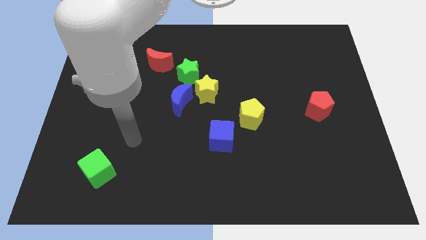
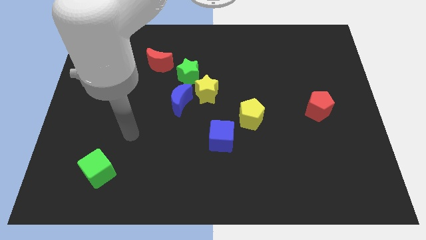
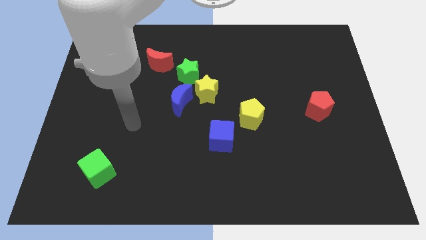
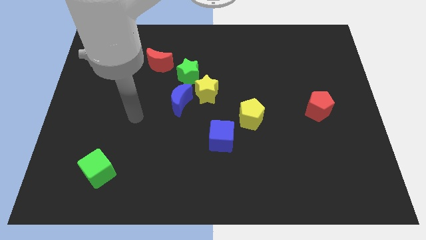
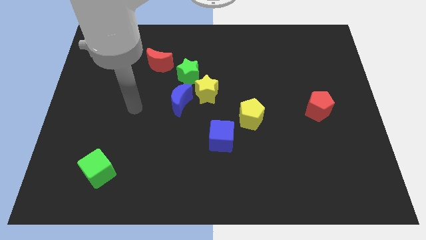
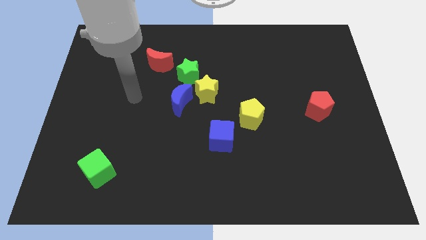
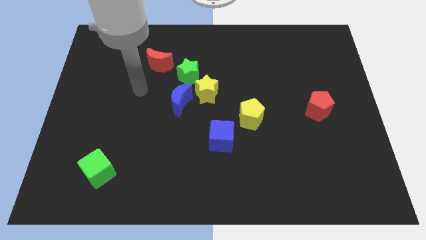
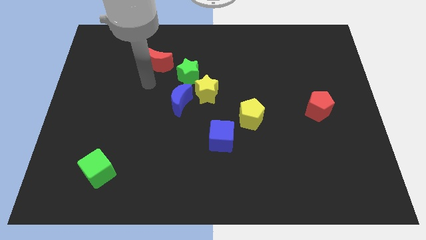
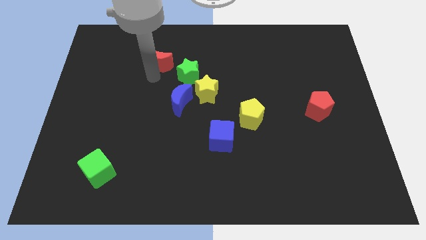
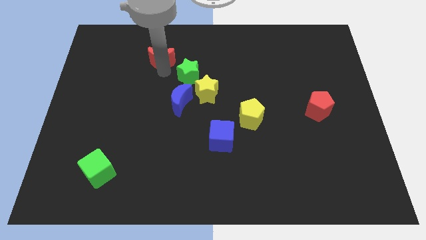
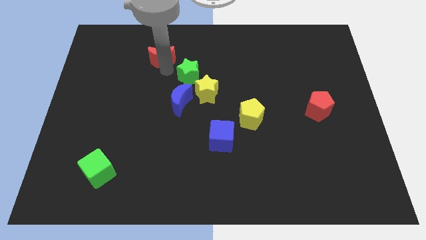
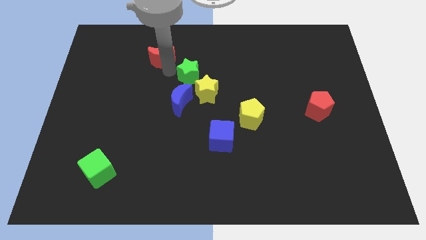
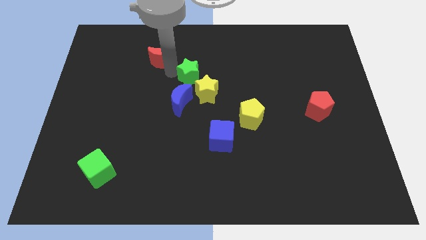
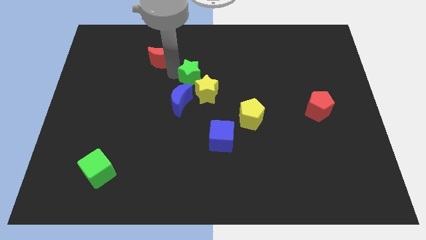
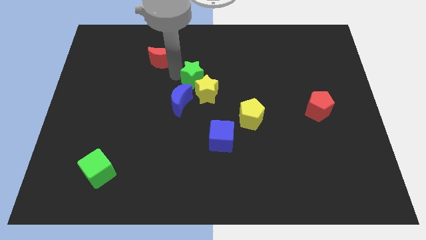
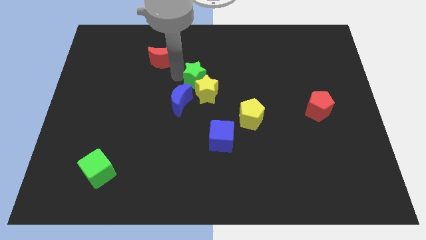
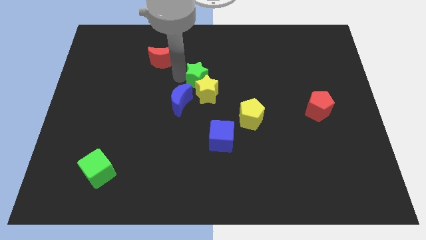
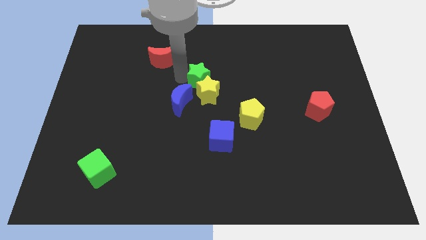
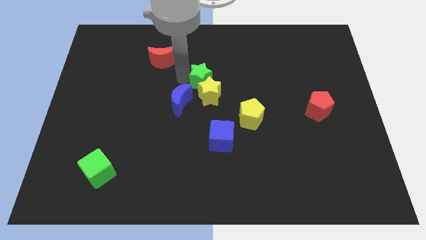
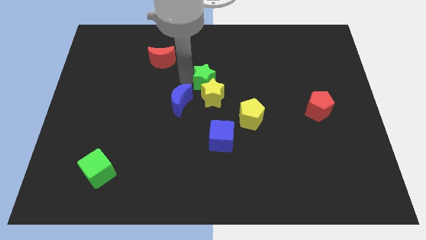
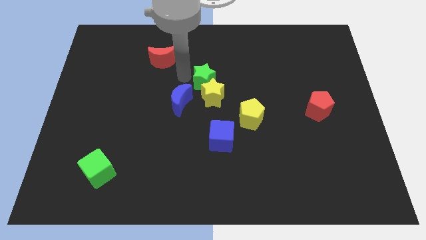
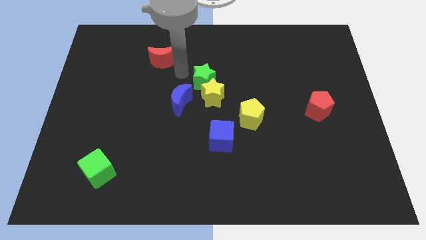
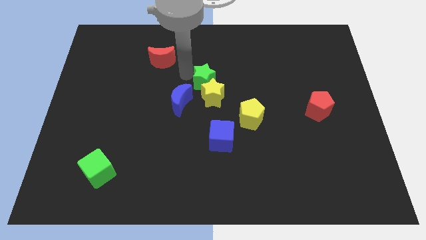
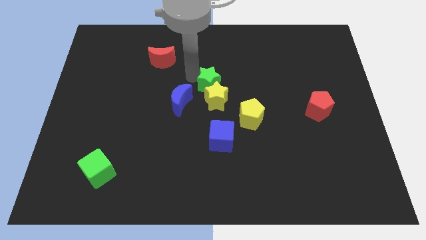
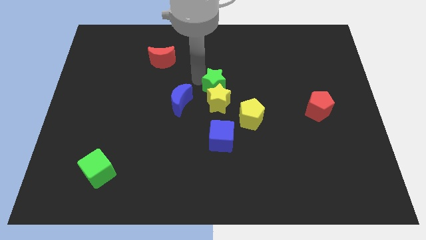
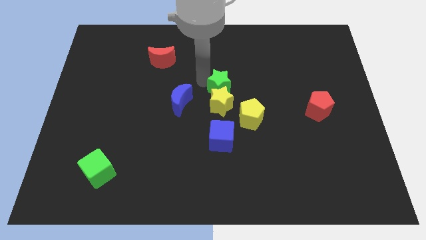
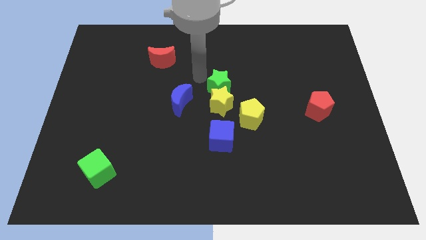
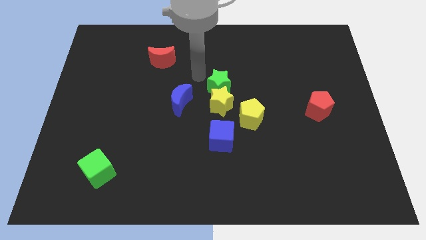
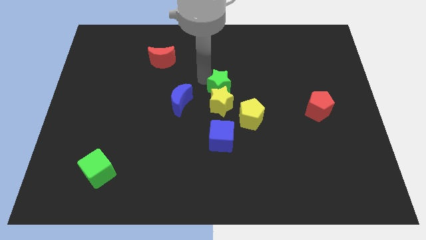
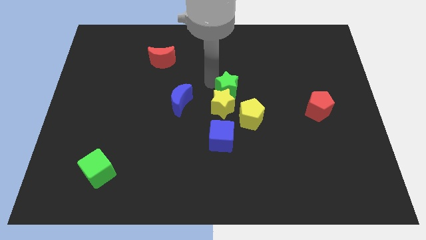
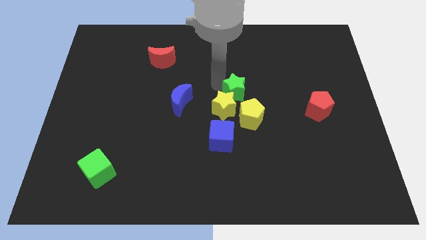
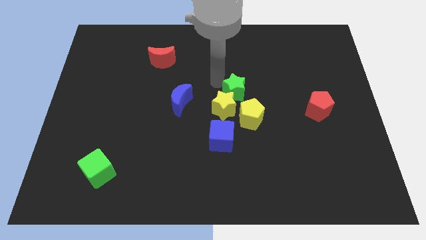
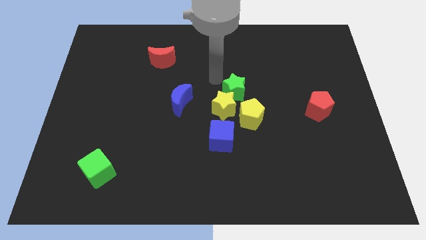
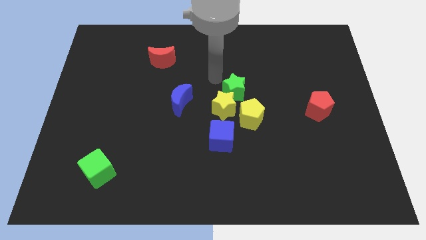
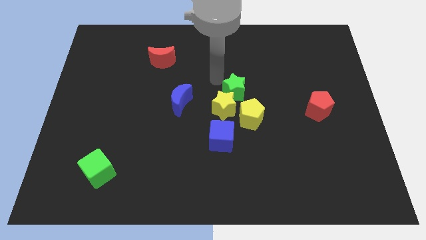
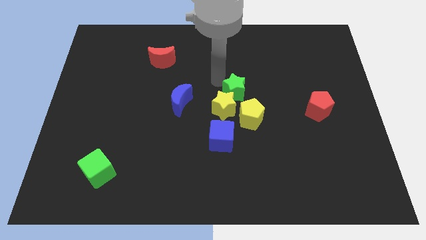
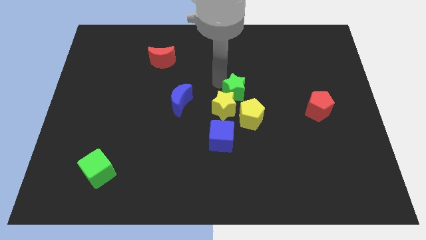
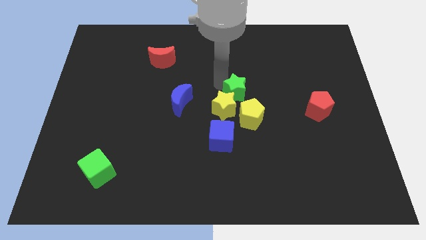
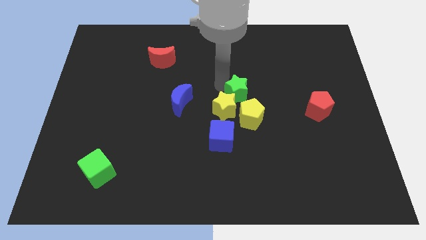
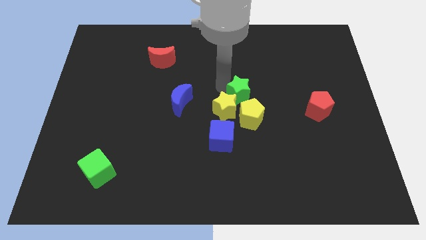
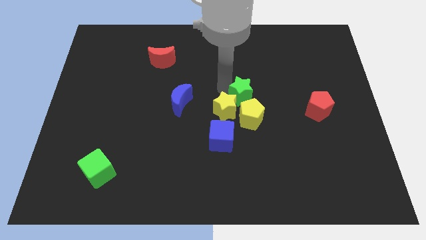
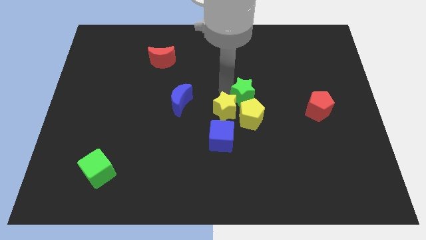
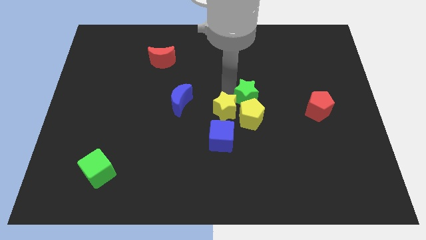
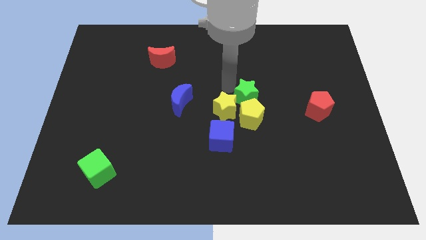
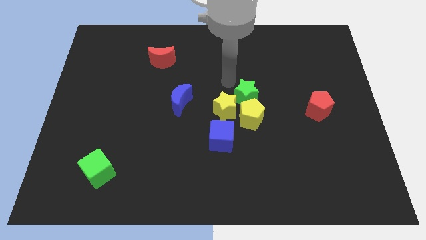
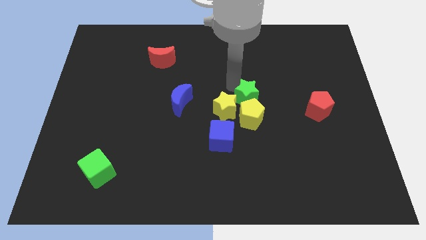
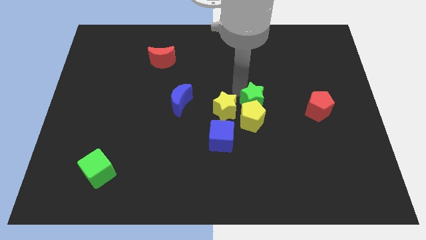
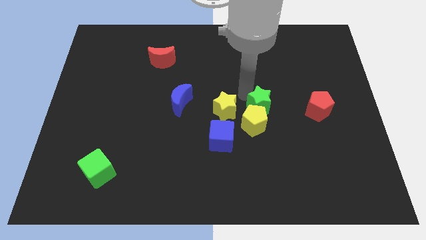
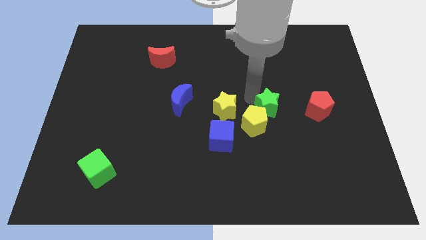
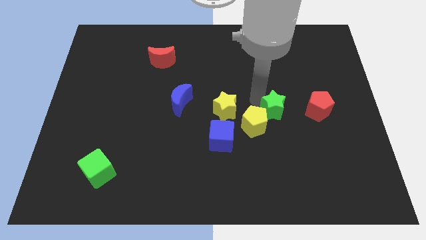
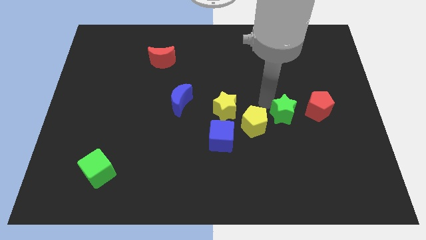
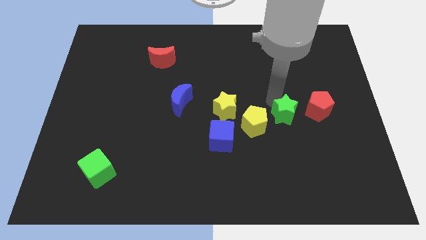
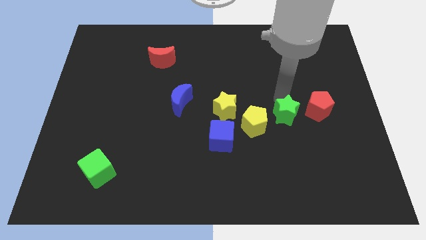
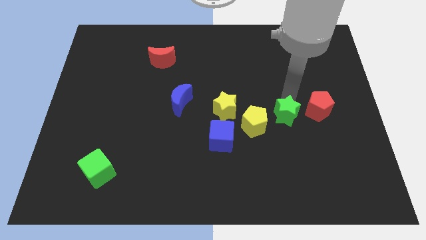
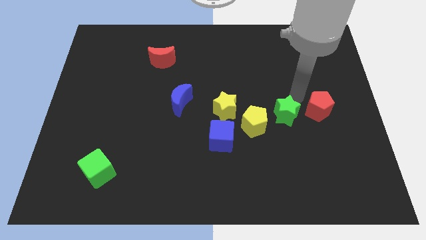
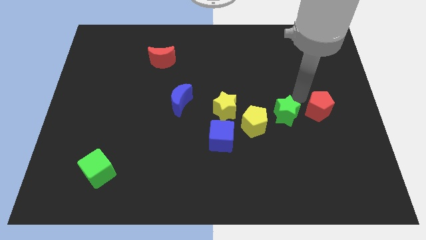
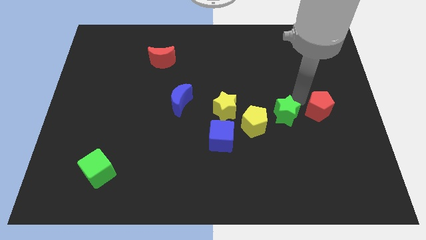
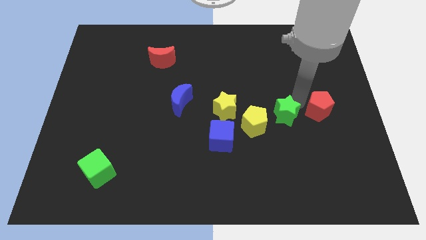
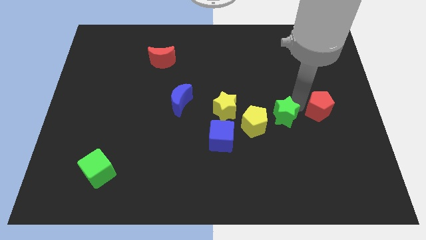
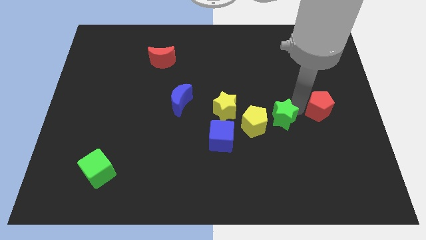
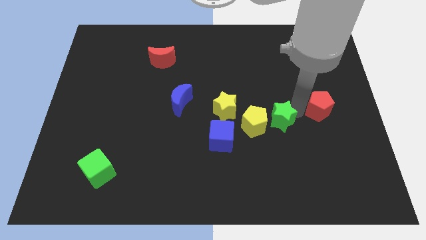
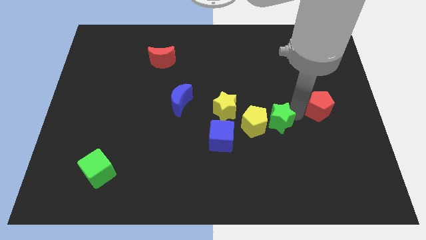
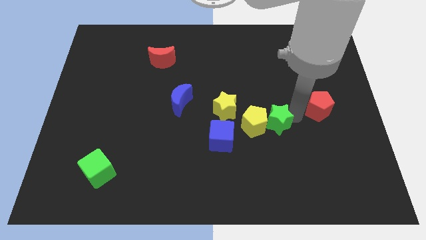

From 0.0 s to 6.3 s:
slide the green star right of the blue cube

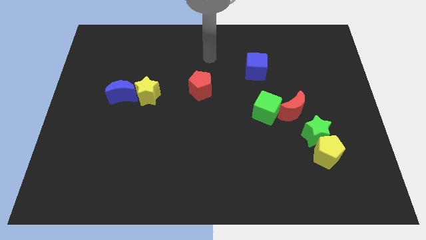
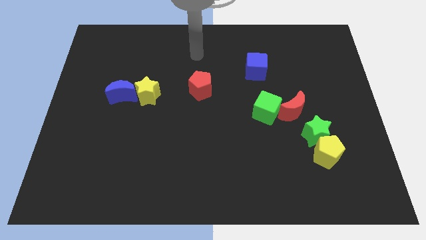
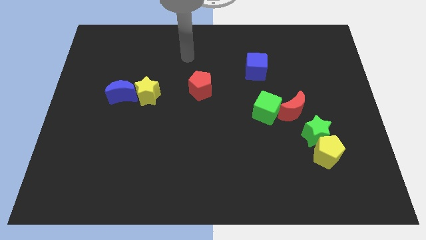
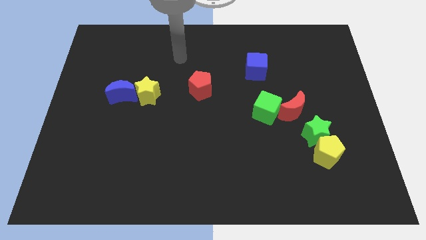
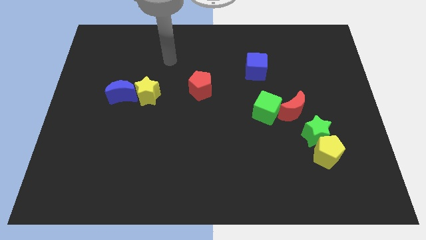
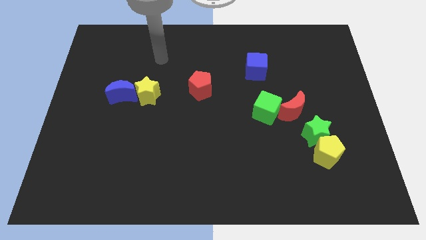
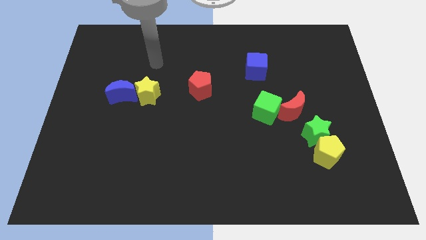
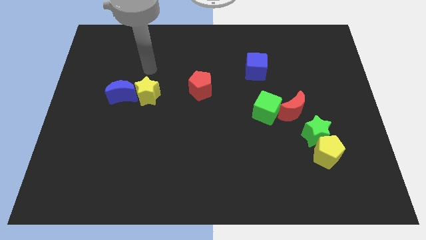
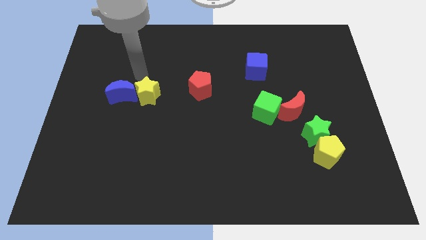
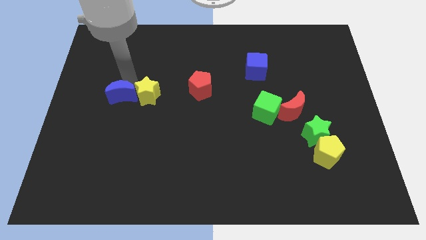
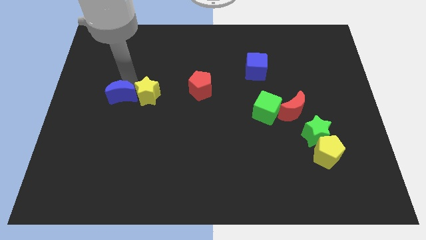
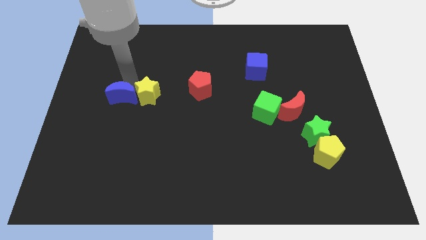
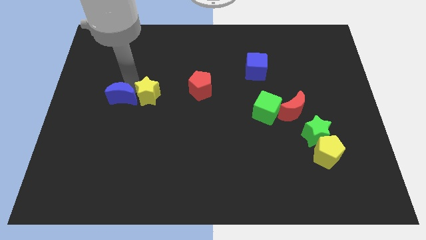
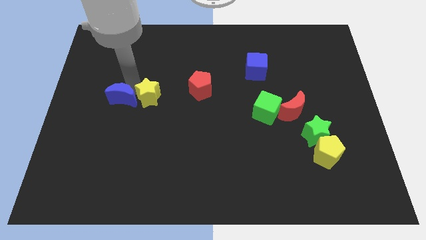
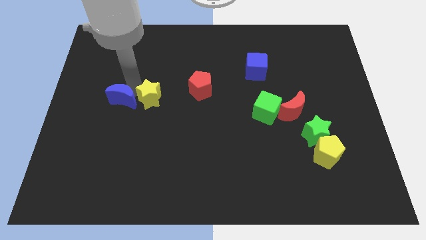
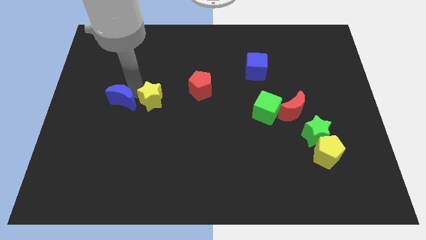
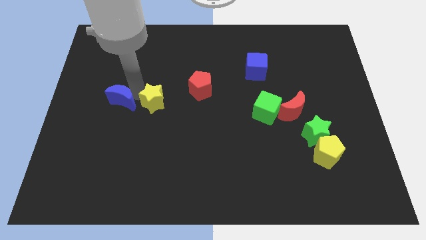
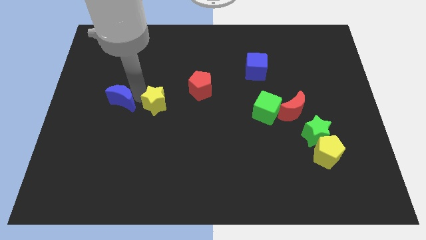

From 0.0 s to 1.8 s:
move the yellow star to the bottom left side of the red pentagon
